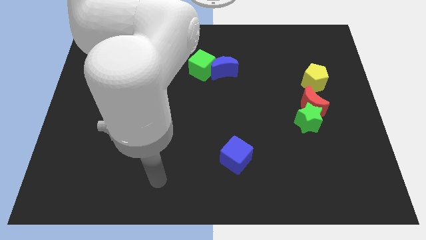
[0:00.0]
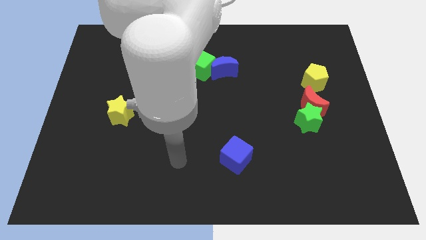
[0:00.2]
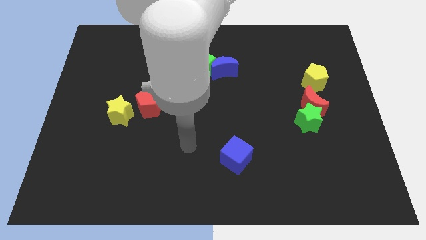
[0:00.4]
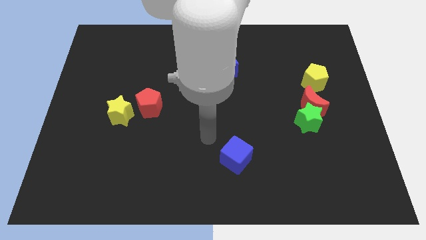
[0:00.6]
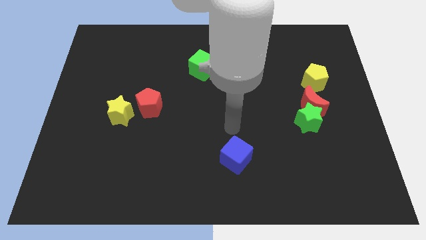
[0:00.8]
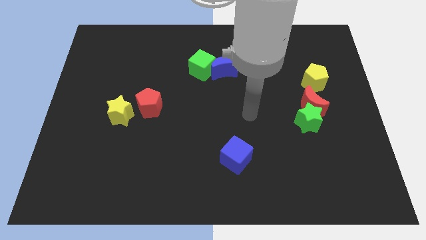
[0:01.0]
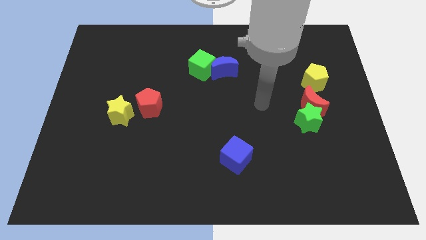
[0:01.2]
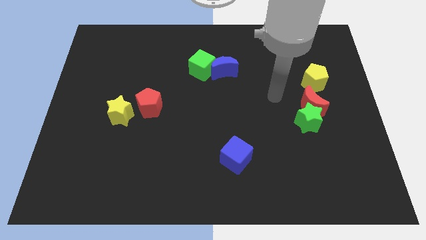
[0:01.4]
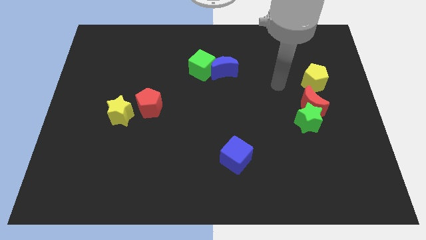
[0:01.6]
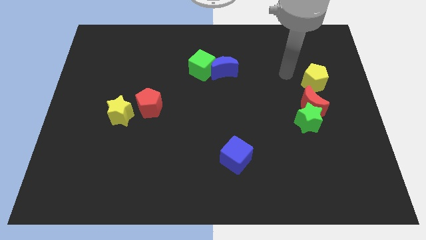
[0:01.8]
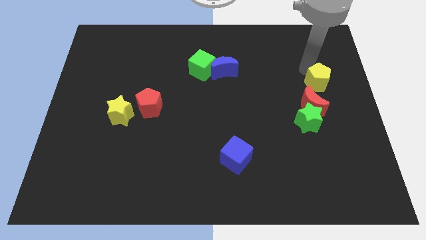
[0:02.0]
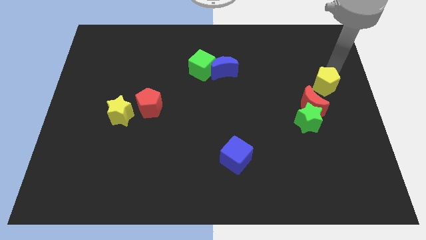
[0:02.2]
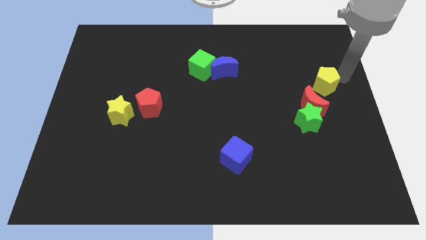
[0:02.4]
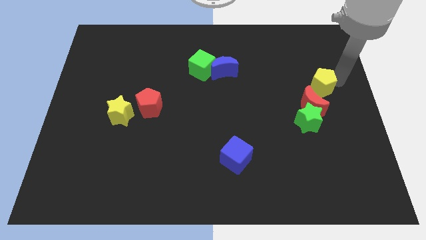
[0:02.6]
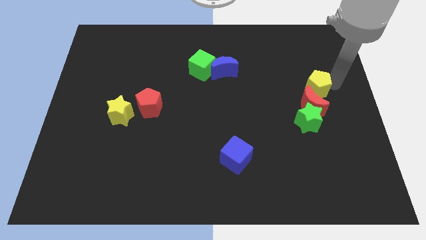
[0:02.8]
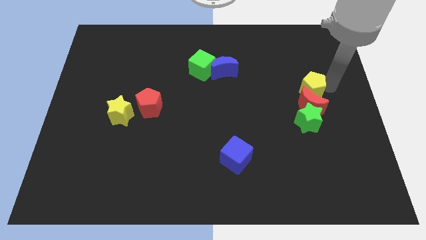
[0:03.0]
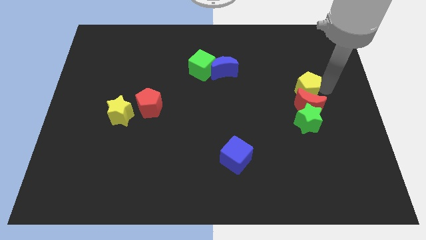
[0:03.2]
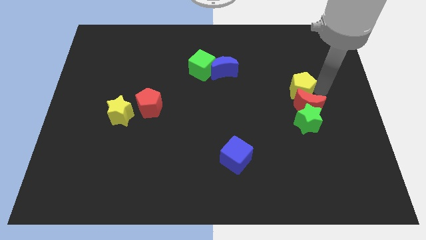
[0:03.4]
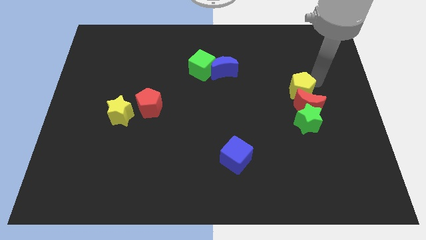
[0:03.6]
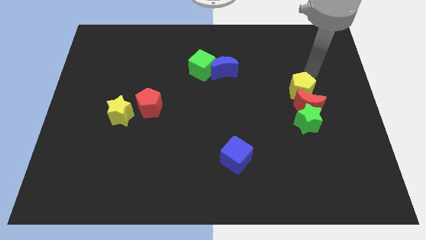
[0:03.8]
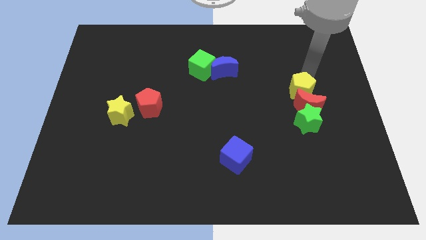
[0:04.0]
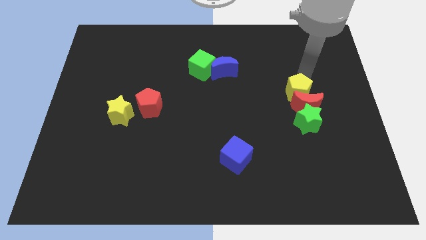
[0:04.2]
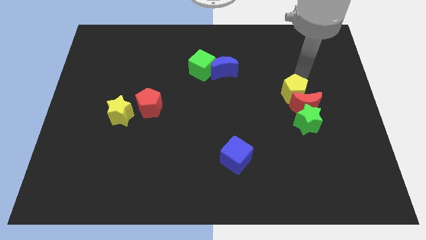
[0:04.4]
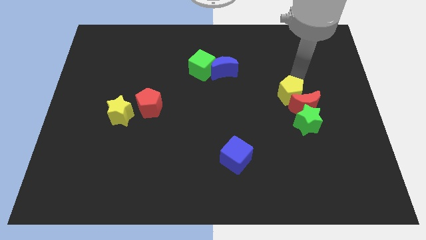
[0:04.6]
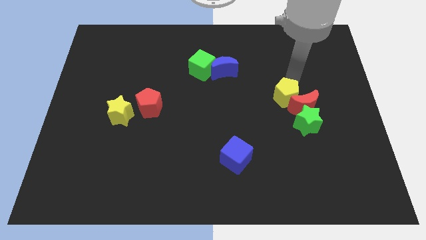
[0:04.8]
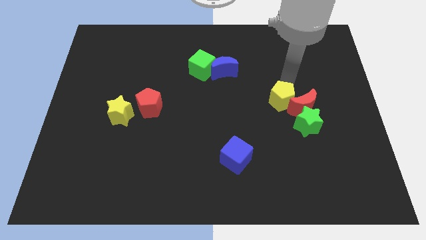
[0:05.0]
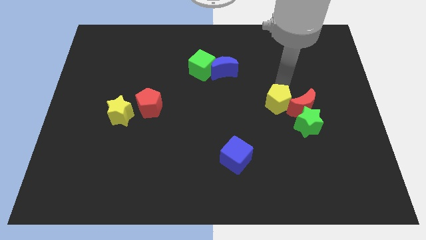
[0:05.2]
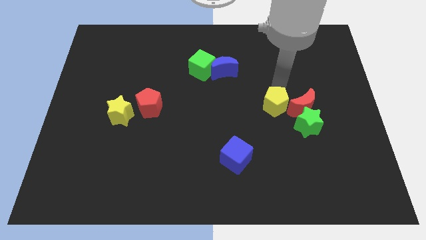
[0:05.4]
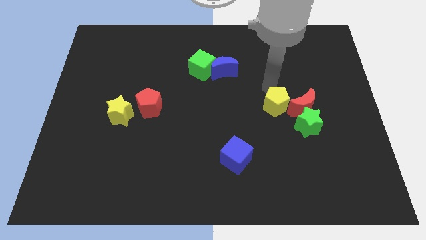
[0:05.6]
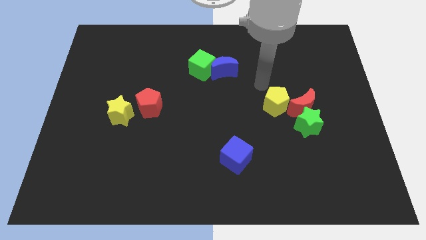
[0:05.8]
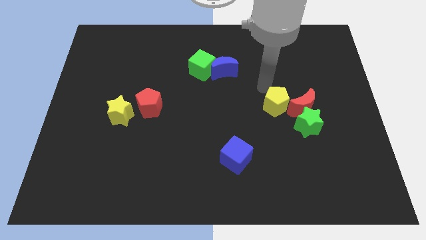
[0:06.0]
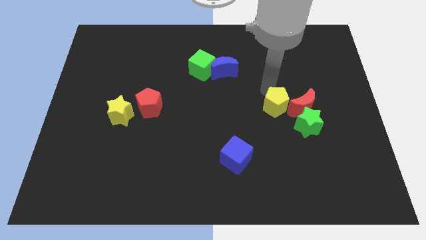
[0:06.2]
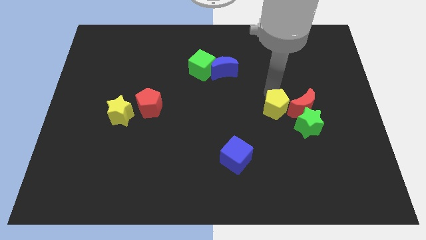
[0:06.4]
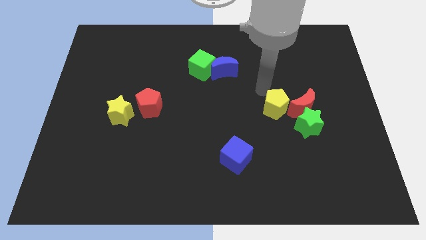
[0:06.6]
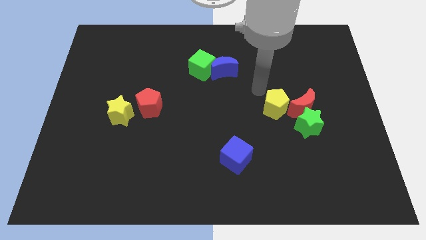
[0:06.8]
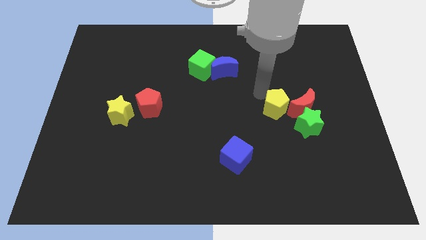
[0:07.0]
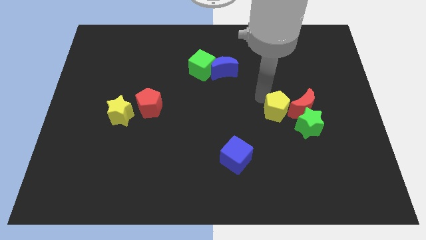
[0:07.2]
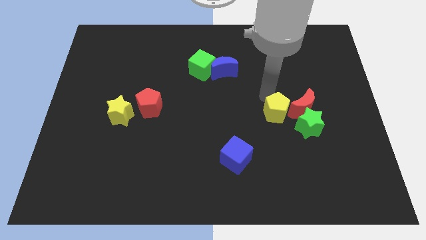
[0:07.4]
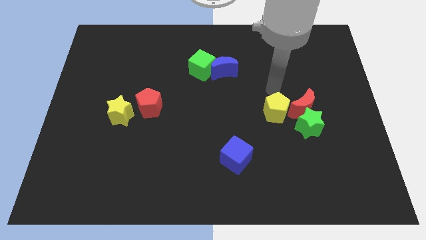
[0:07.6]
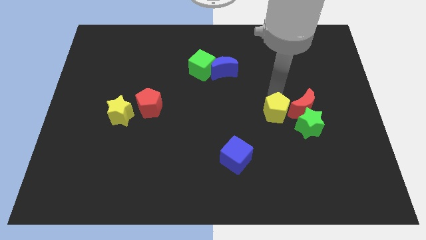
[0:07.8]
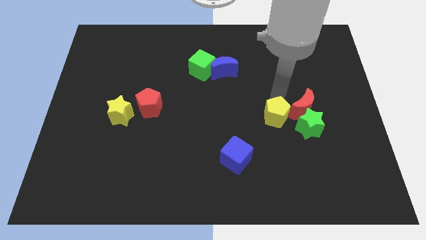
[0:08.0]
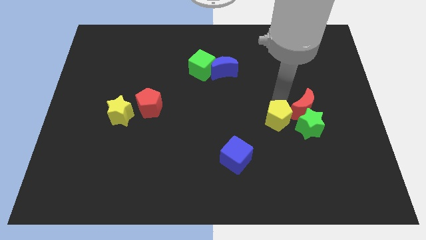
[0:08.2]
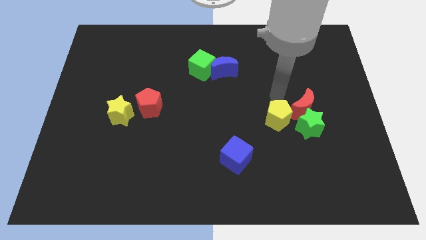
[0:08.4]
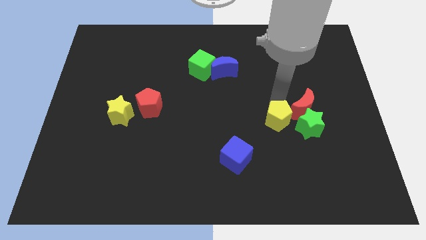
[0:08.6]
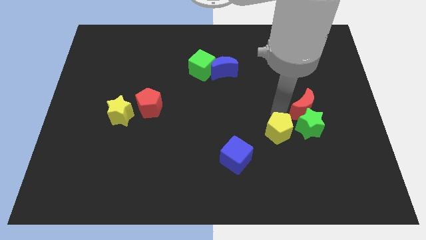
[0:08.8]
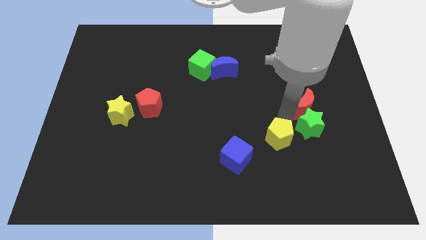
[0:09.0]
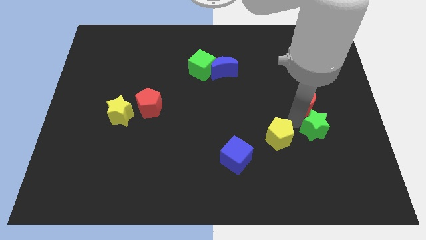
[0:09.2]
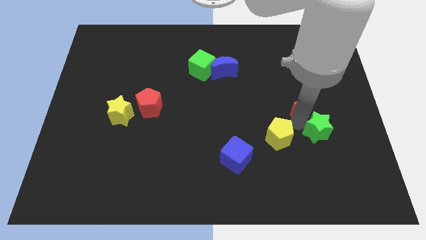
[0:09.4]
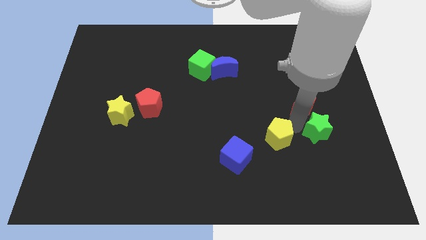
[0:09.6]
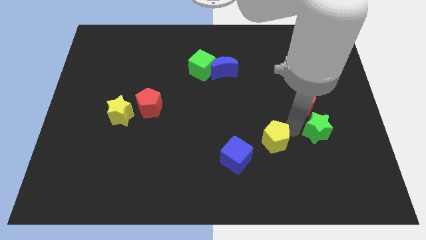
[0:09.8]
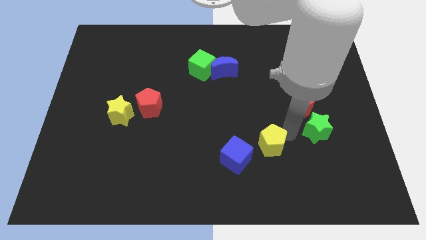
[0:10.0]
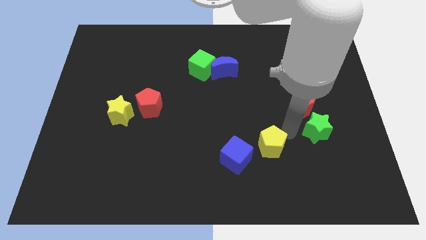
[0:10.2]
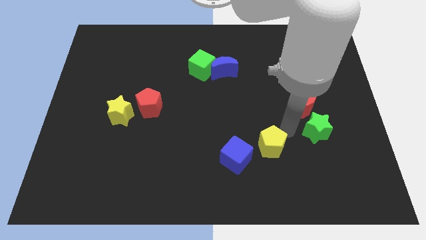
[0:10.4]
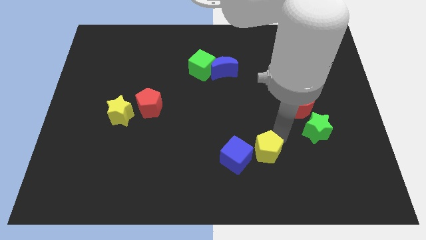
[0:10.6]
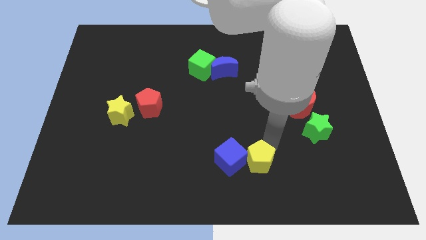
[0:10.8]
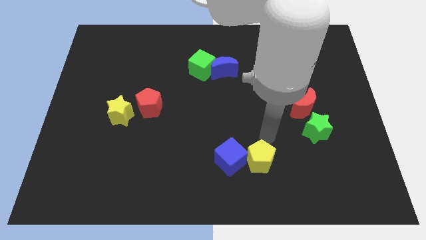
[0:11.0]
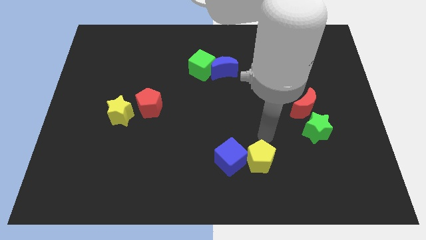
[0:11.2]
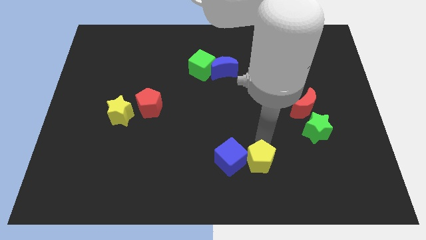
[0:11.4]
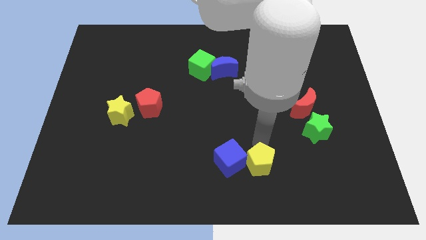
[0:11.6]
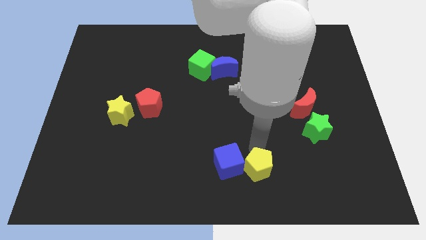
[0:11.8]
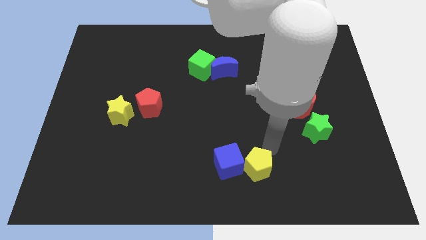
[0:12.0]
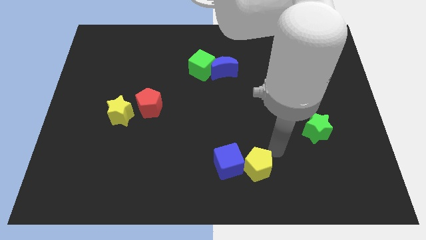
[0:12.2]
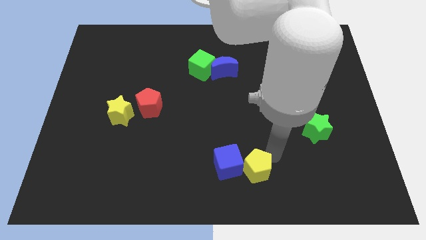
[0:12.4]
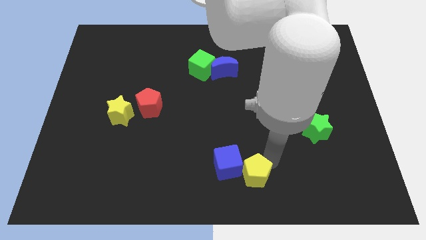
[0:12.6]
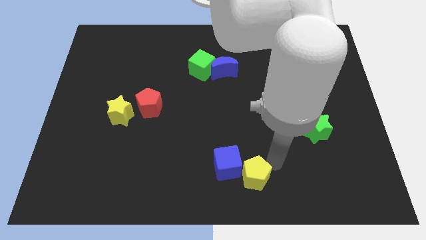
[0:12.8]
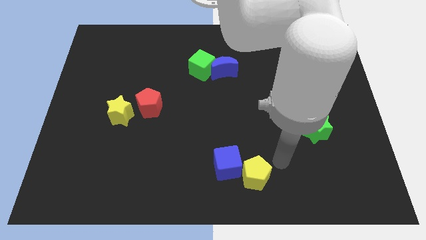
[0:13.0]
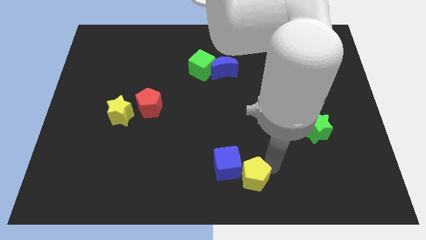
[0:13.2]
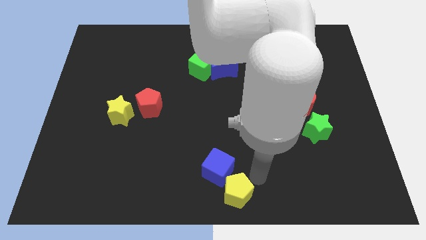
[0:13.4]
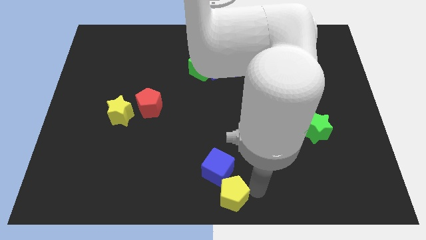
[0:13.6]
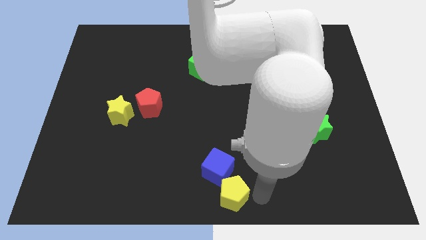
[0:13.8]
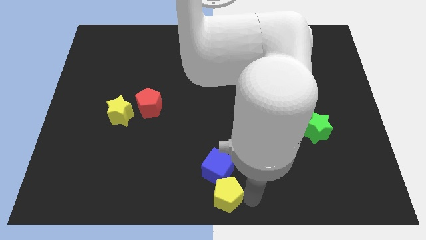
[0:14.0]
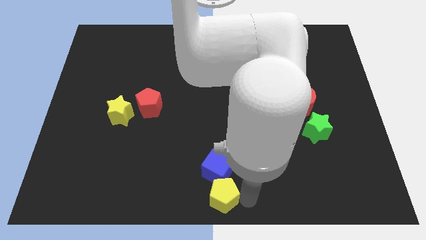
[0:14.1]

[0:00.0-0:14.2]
push the yellow pentagon to the bottom left side of the blue cube
